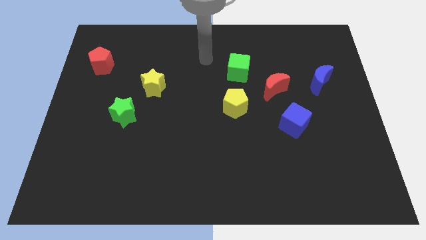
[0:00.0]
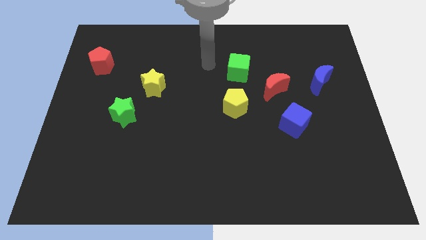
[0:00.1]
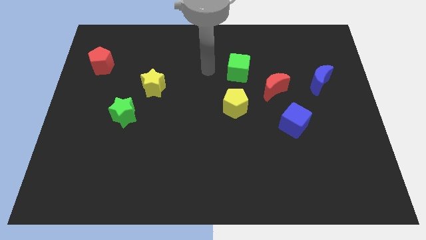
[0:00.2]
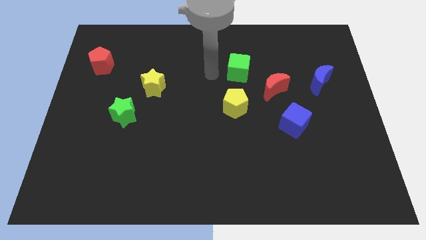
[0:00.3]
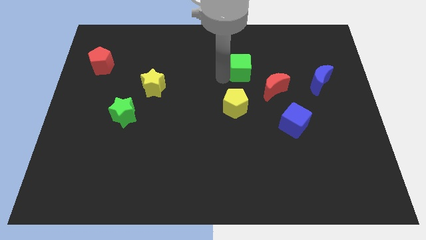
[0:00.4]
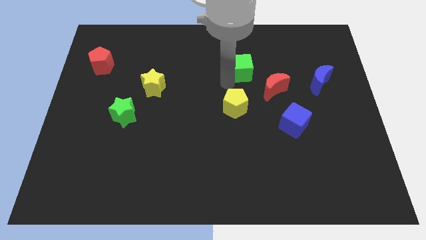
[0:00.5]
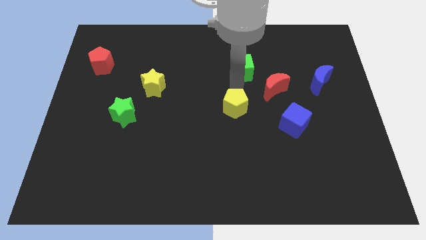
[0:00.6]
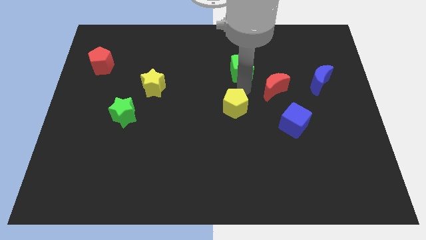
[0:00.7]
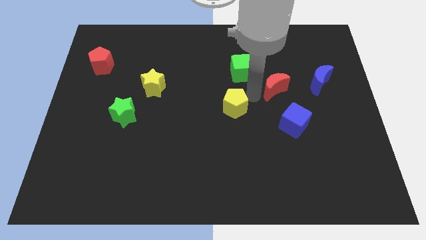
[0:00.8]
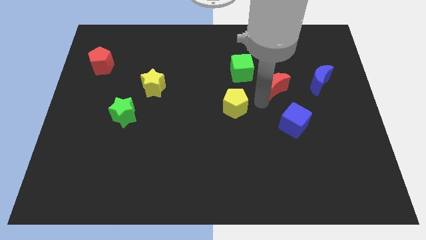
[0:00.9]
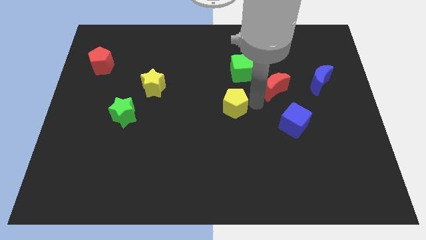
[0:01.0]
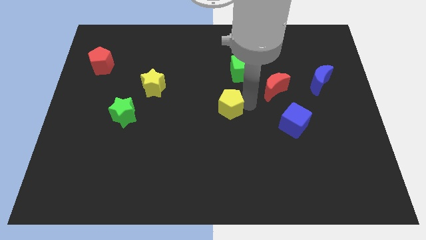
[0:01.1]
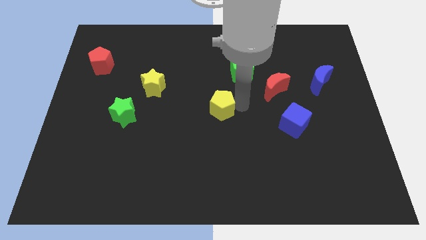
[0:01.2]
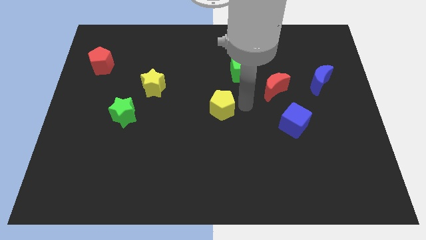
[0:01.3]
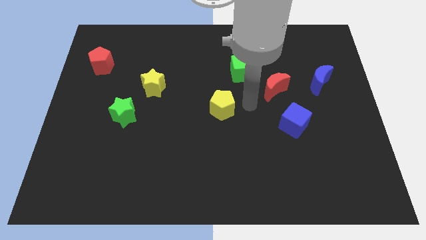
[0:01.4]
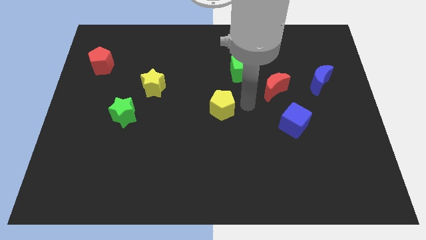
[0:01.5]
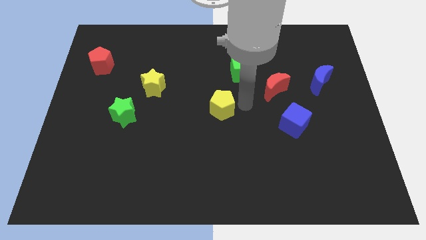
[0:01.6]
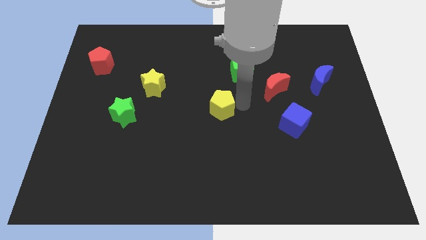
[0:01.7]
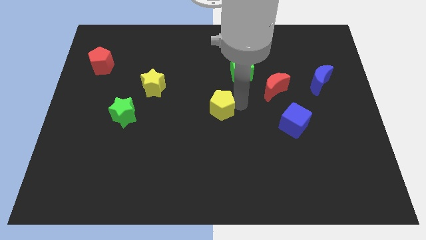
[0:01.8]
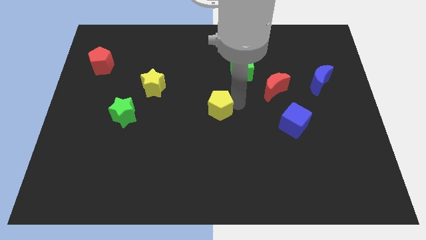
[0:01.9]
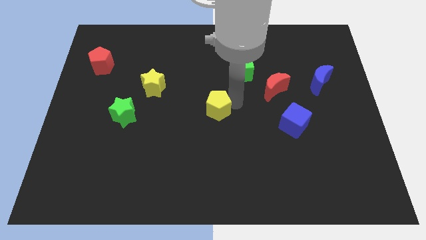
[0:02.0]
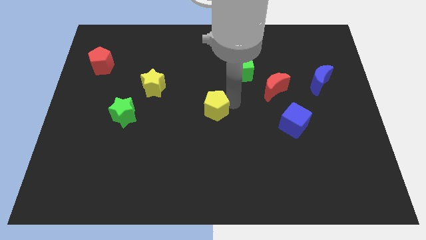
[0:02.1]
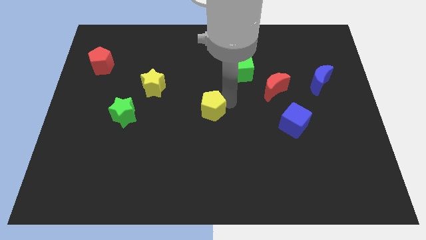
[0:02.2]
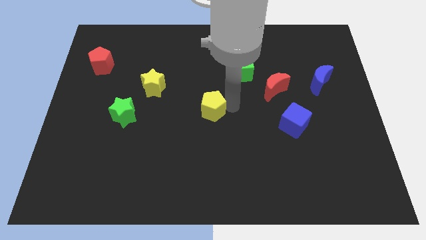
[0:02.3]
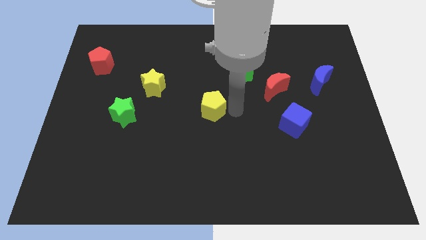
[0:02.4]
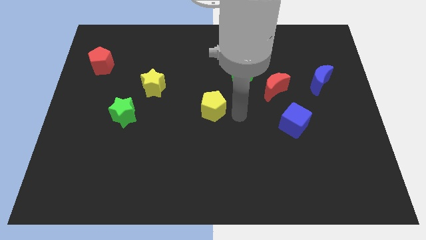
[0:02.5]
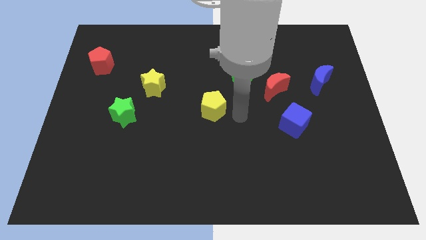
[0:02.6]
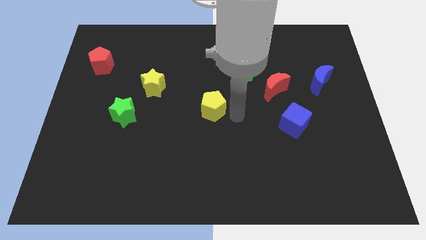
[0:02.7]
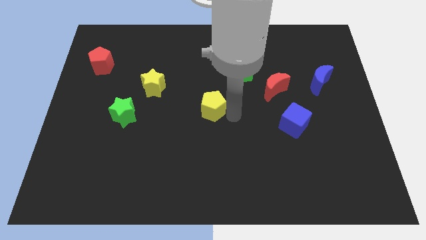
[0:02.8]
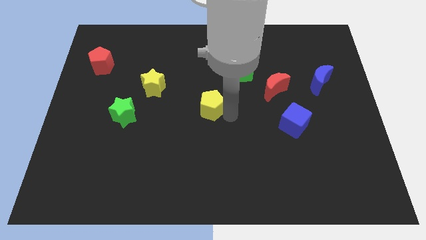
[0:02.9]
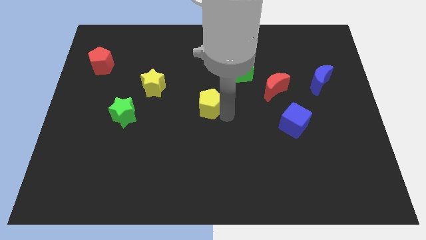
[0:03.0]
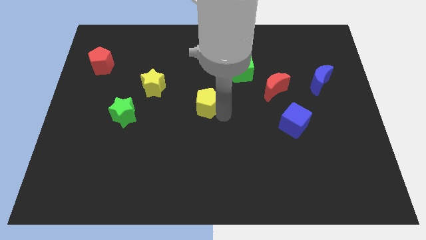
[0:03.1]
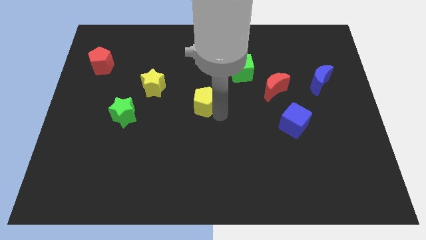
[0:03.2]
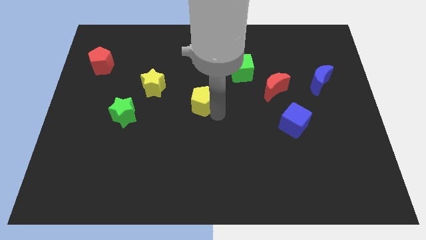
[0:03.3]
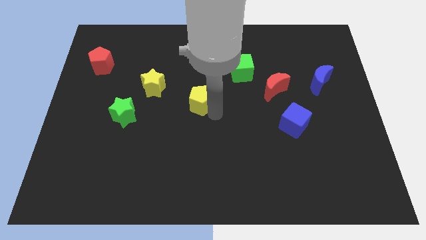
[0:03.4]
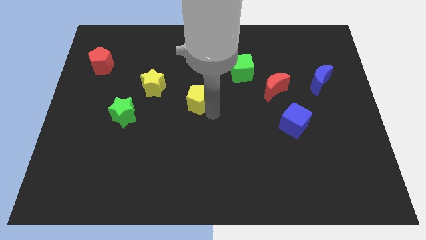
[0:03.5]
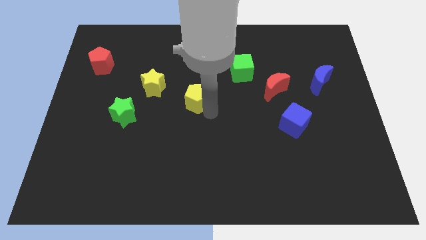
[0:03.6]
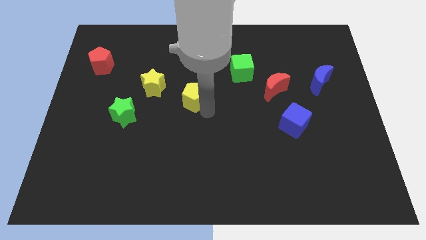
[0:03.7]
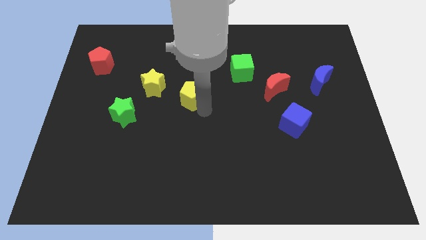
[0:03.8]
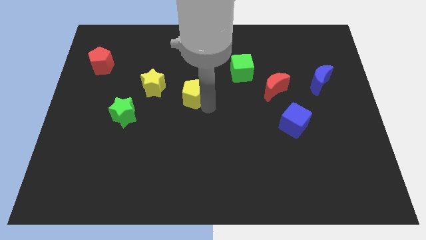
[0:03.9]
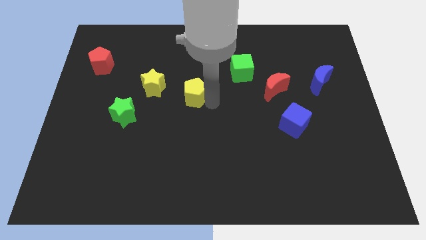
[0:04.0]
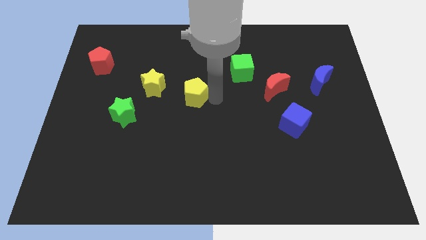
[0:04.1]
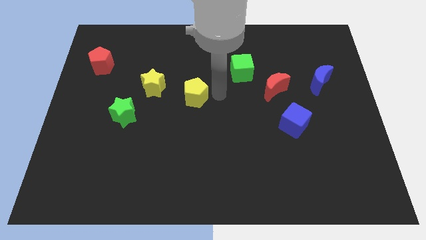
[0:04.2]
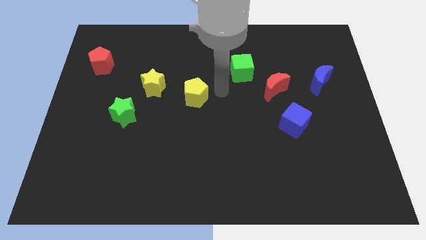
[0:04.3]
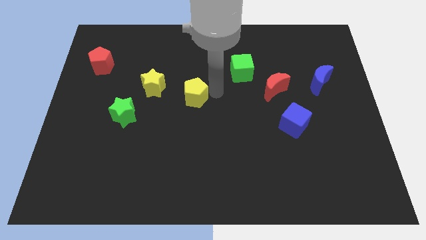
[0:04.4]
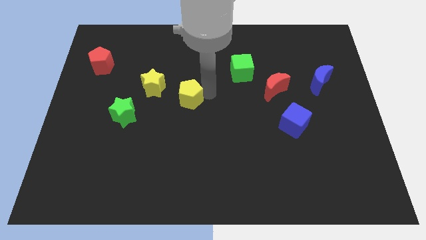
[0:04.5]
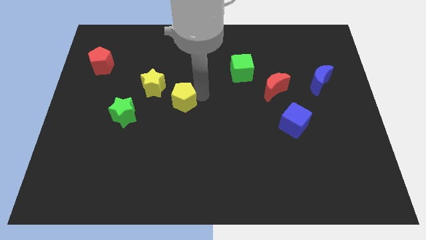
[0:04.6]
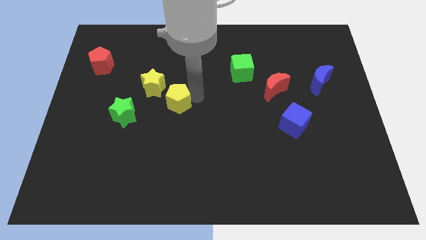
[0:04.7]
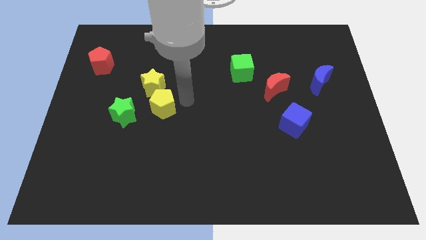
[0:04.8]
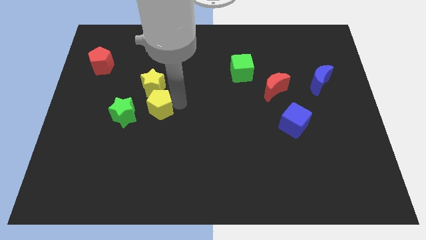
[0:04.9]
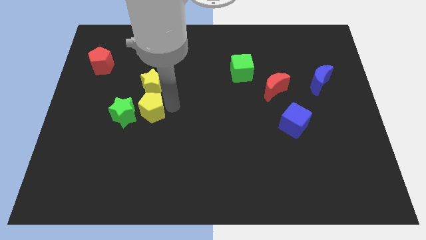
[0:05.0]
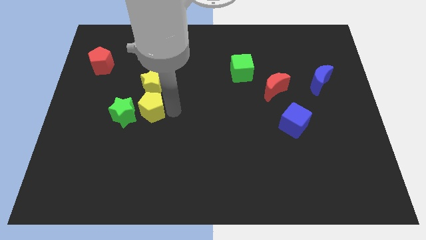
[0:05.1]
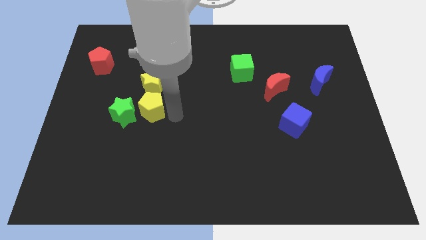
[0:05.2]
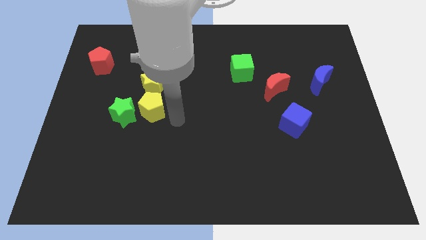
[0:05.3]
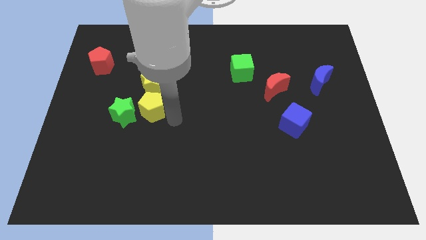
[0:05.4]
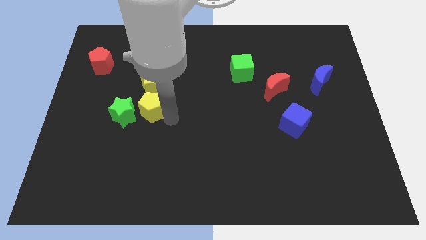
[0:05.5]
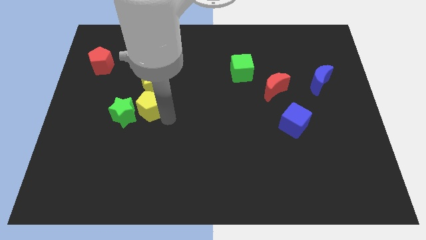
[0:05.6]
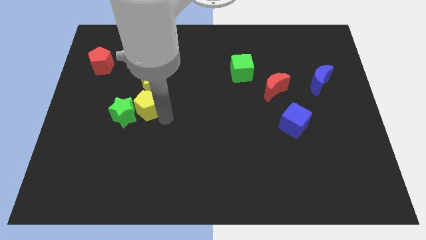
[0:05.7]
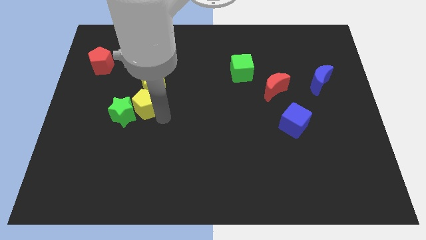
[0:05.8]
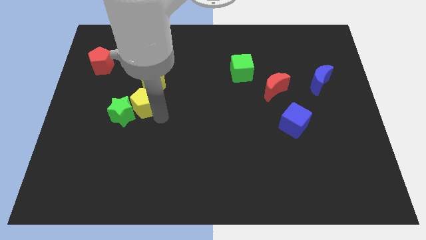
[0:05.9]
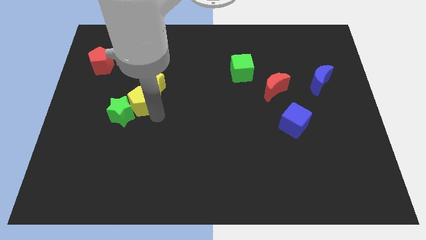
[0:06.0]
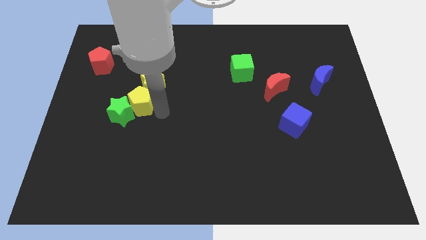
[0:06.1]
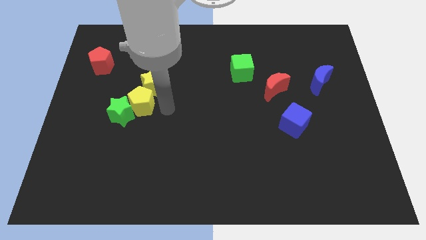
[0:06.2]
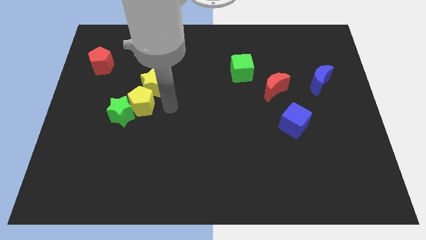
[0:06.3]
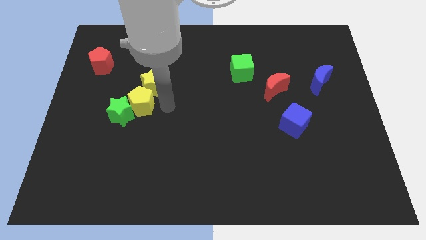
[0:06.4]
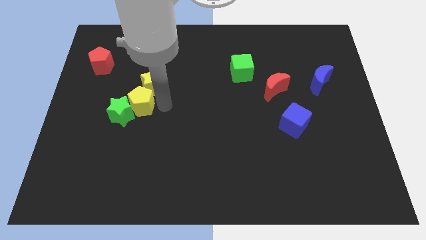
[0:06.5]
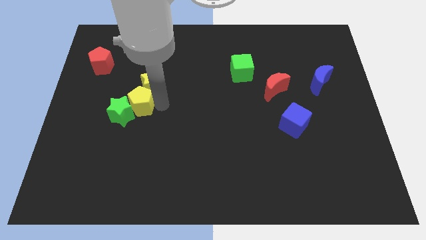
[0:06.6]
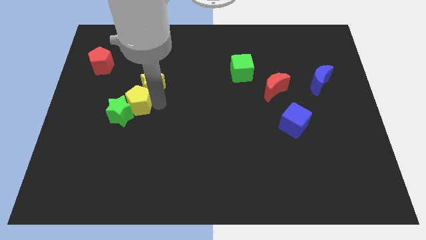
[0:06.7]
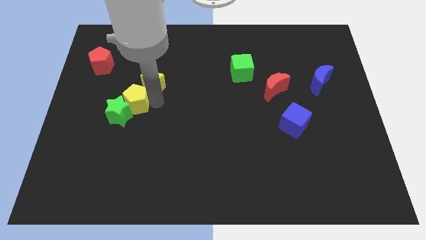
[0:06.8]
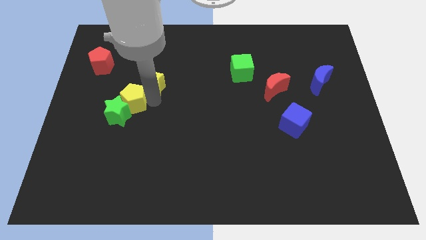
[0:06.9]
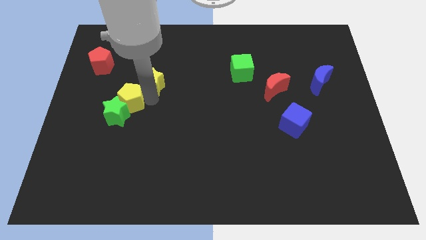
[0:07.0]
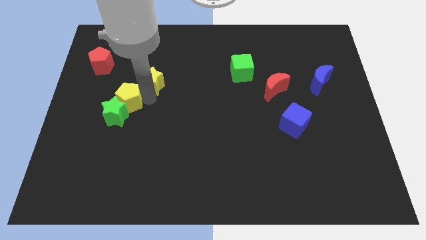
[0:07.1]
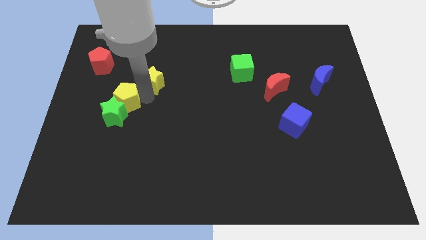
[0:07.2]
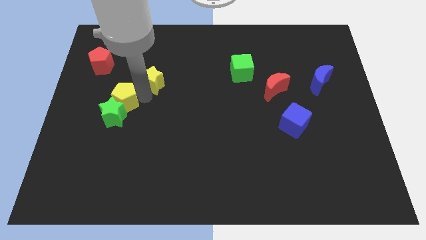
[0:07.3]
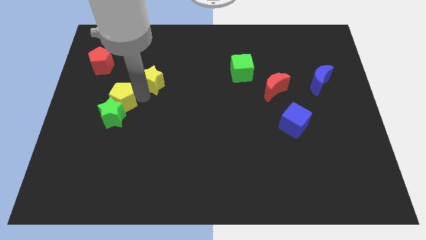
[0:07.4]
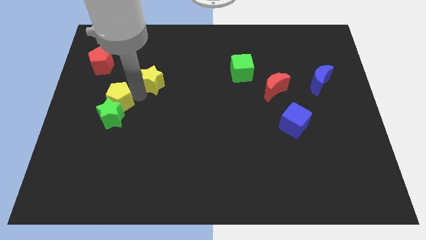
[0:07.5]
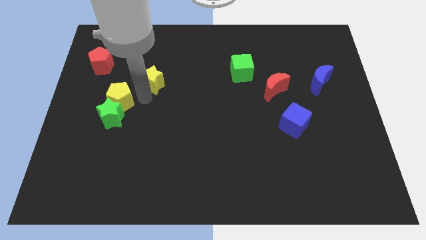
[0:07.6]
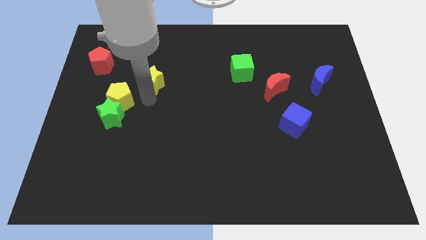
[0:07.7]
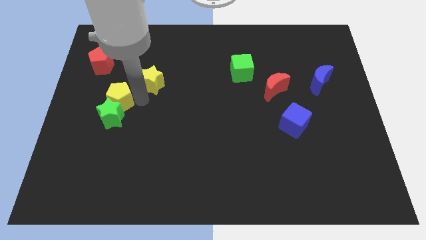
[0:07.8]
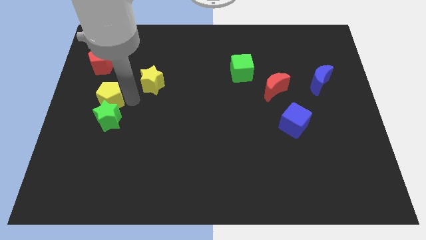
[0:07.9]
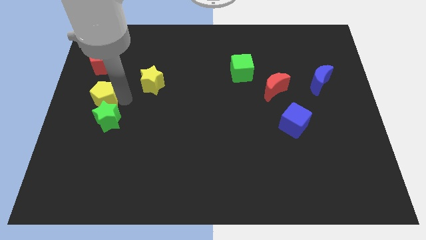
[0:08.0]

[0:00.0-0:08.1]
push the yellow pentagon to the left side of the board
